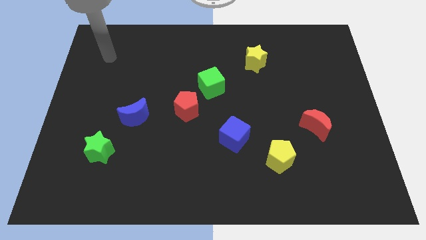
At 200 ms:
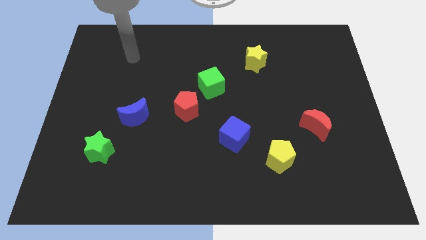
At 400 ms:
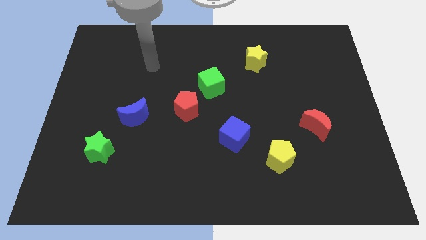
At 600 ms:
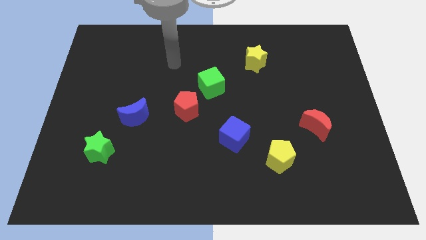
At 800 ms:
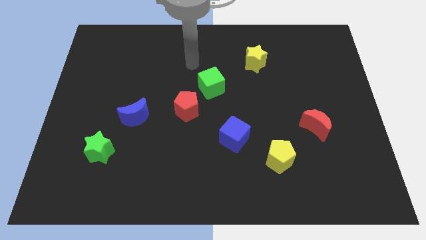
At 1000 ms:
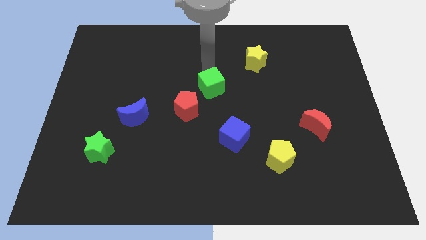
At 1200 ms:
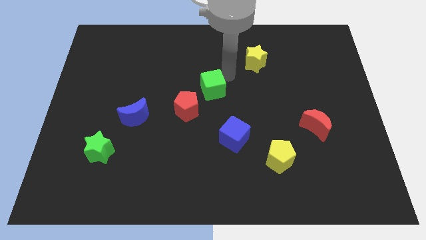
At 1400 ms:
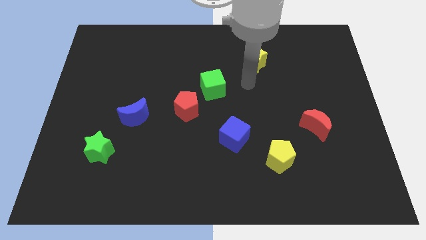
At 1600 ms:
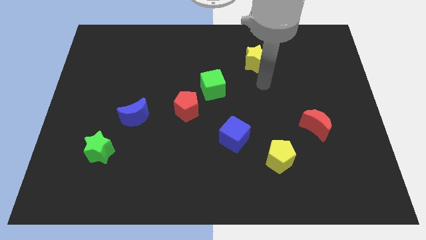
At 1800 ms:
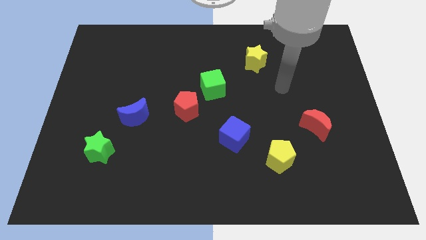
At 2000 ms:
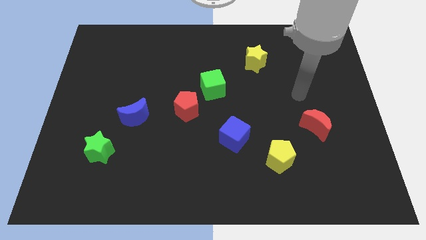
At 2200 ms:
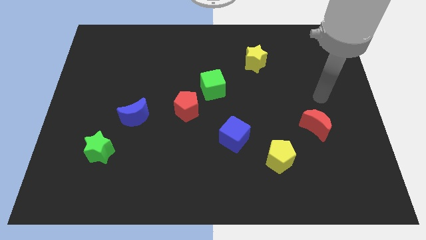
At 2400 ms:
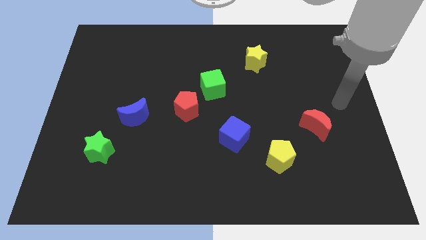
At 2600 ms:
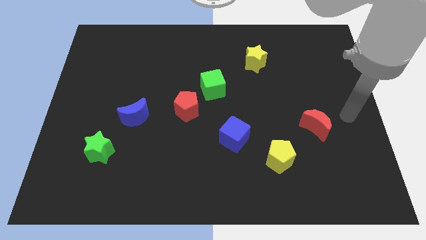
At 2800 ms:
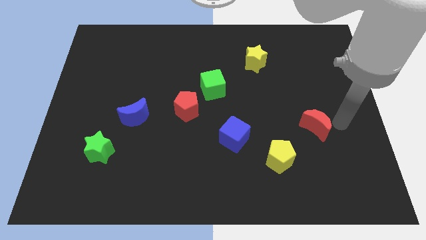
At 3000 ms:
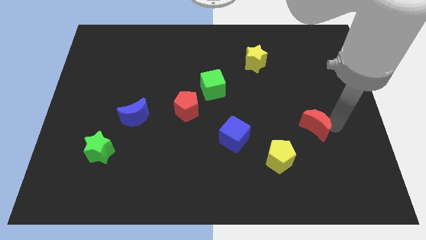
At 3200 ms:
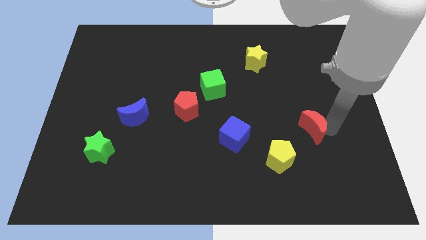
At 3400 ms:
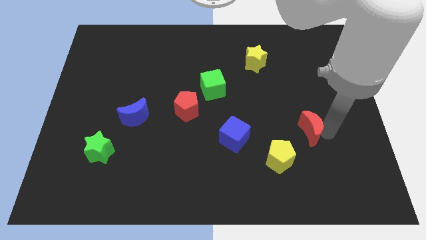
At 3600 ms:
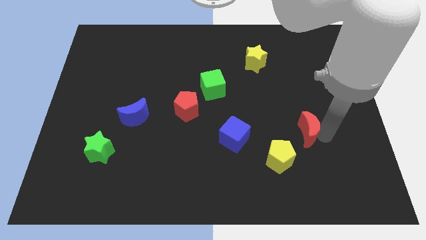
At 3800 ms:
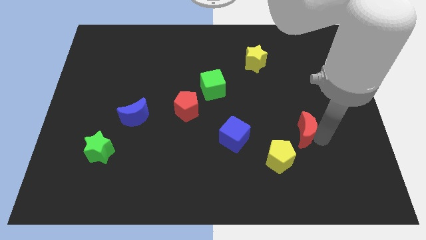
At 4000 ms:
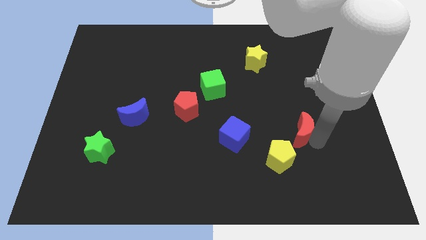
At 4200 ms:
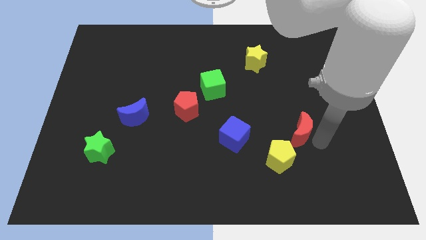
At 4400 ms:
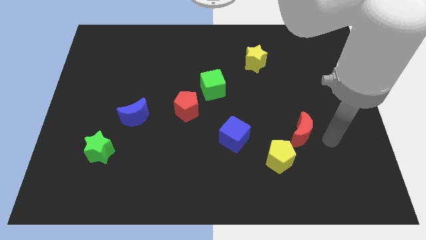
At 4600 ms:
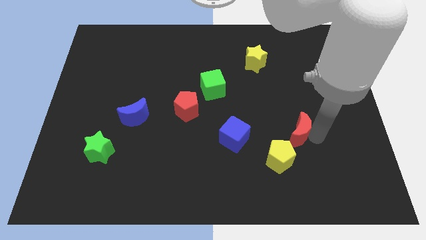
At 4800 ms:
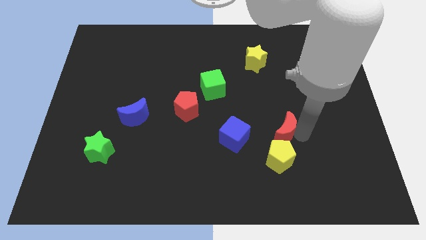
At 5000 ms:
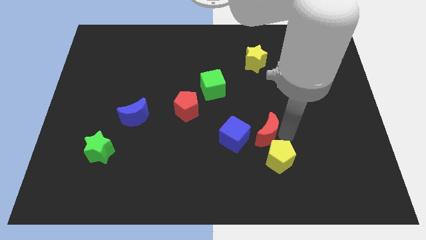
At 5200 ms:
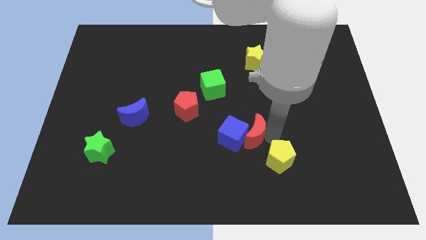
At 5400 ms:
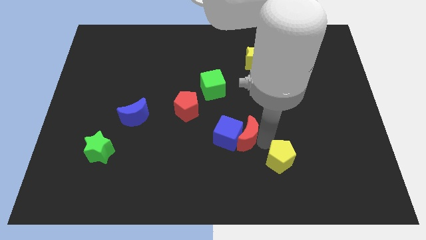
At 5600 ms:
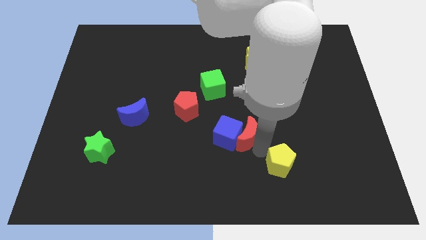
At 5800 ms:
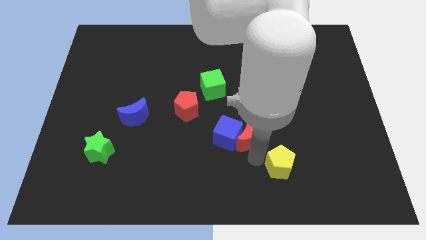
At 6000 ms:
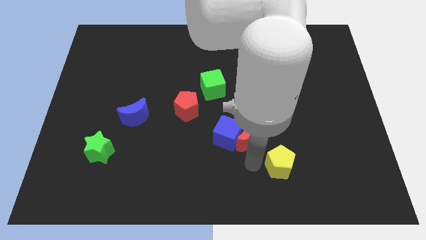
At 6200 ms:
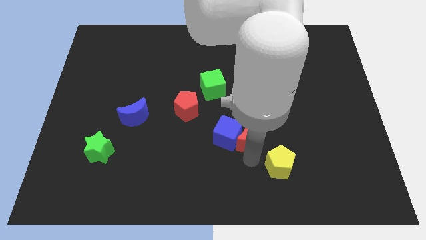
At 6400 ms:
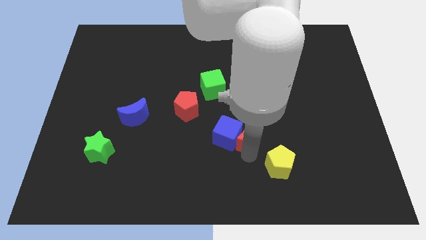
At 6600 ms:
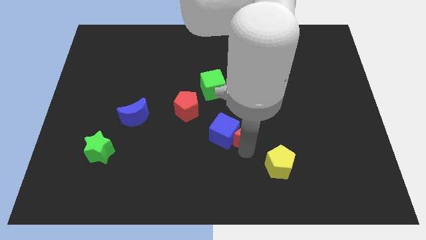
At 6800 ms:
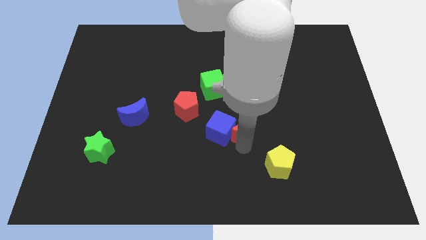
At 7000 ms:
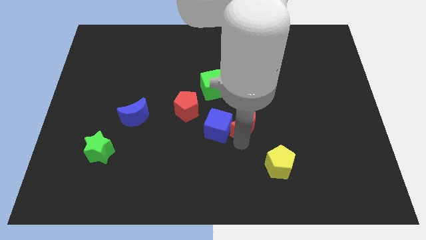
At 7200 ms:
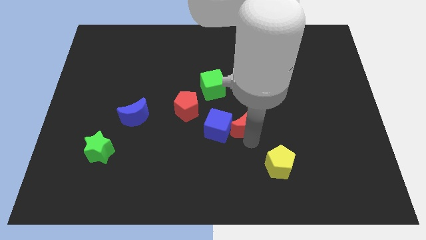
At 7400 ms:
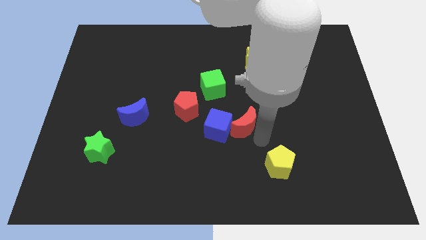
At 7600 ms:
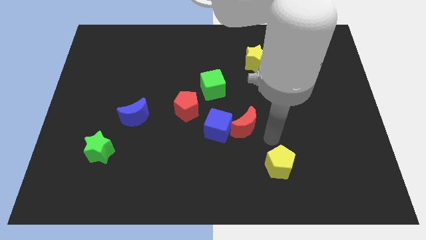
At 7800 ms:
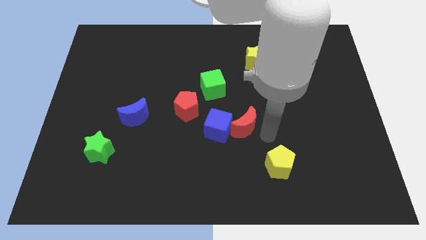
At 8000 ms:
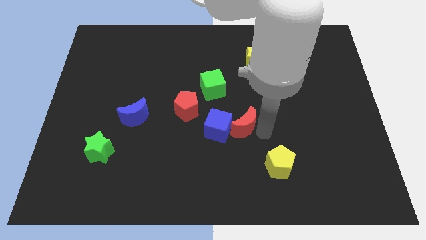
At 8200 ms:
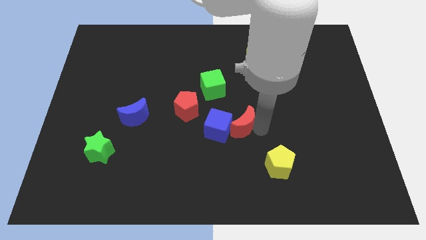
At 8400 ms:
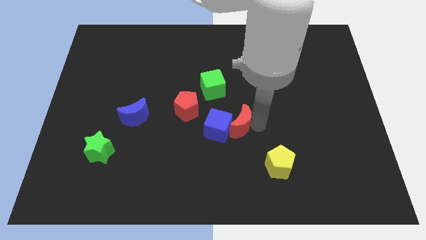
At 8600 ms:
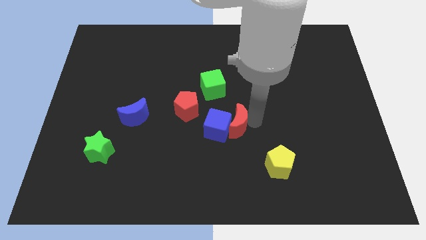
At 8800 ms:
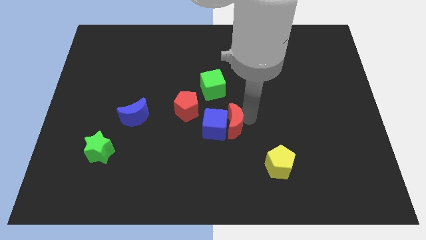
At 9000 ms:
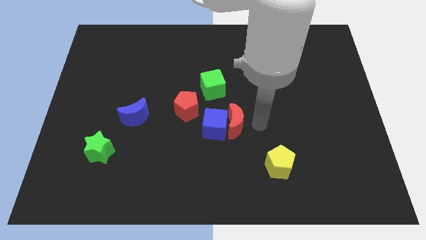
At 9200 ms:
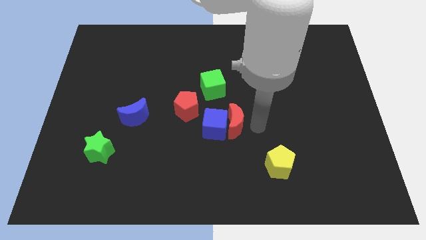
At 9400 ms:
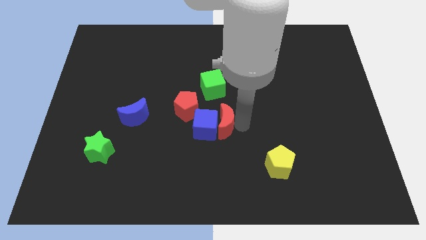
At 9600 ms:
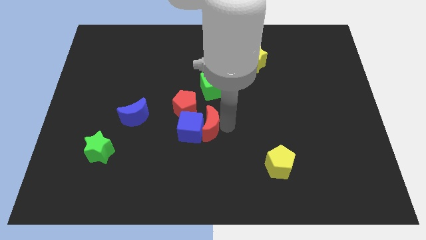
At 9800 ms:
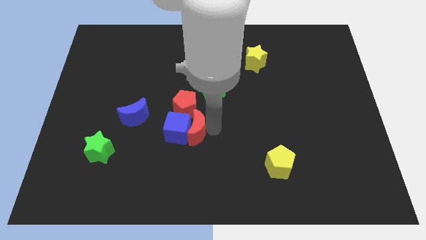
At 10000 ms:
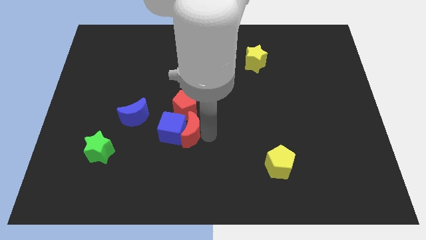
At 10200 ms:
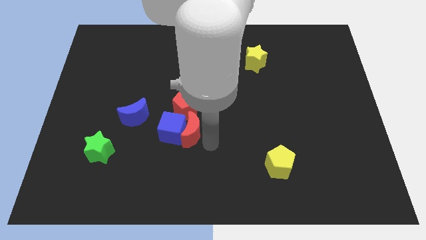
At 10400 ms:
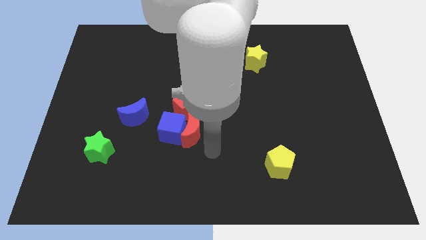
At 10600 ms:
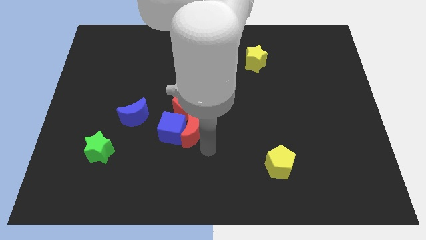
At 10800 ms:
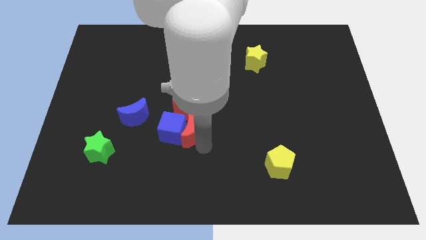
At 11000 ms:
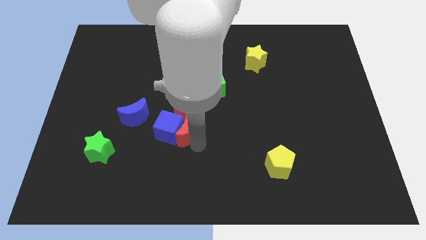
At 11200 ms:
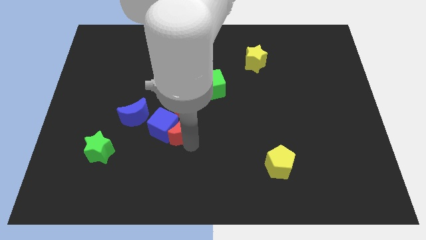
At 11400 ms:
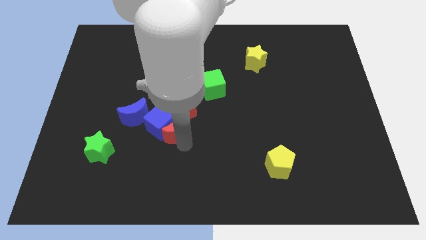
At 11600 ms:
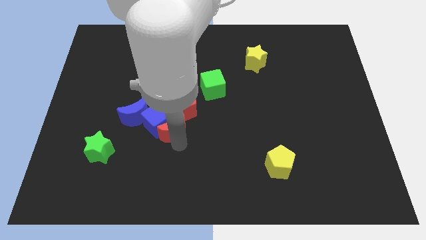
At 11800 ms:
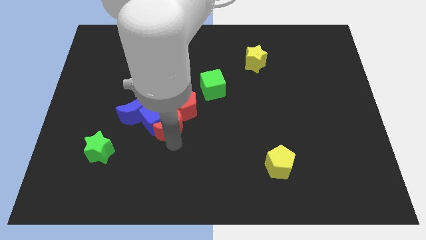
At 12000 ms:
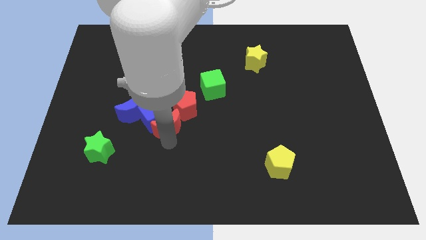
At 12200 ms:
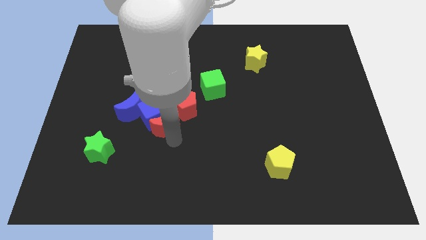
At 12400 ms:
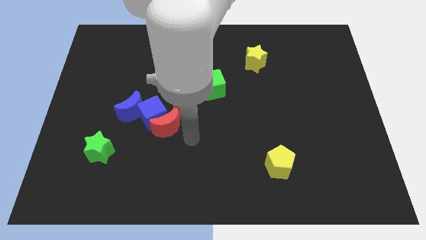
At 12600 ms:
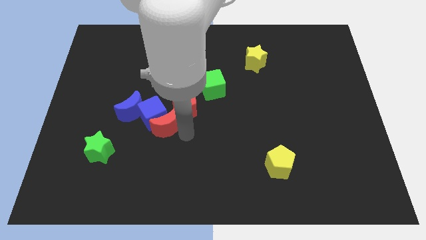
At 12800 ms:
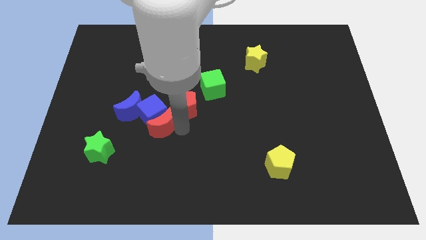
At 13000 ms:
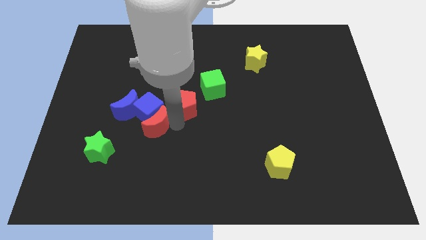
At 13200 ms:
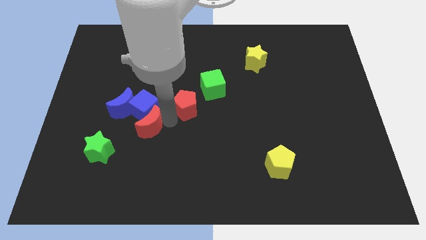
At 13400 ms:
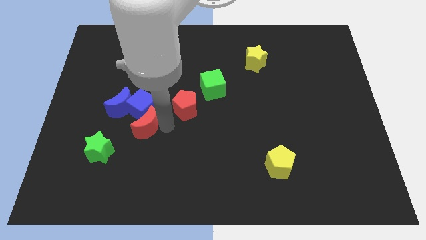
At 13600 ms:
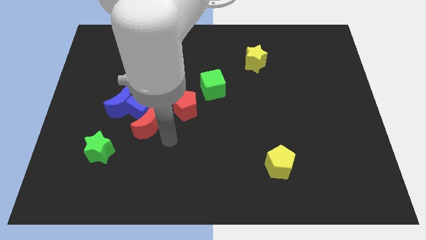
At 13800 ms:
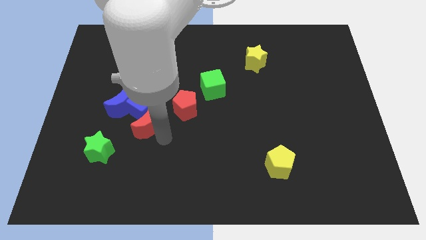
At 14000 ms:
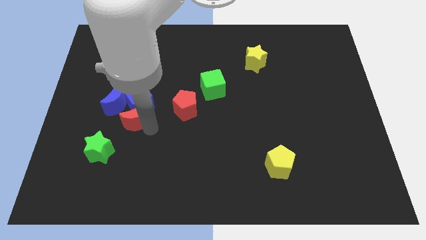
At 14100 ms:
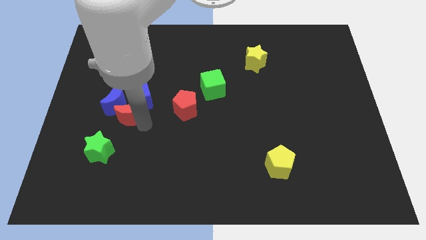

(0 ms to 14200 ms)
push the red moon close to the blue moon

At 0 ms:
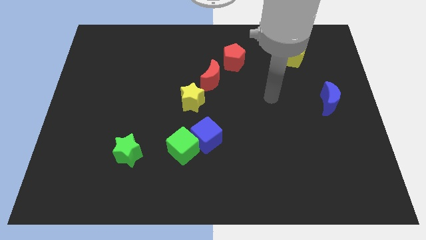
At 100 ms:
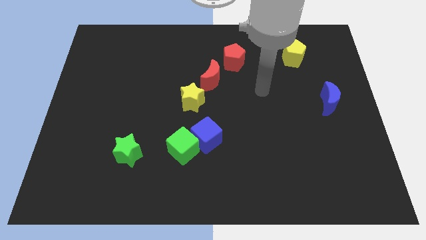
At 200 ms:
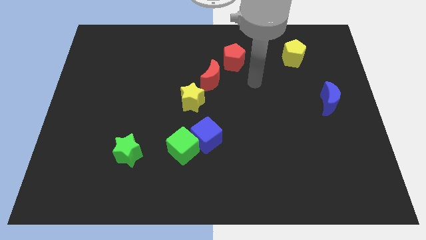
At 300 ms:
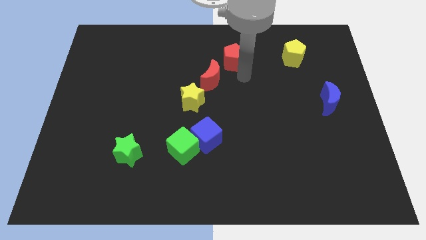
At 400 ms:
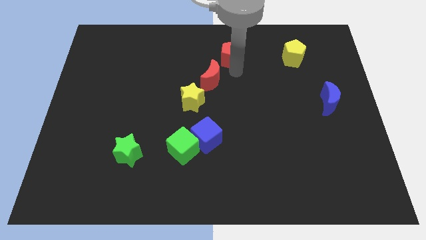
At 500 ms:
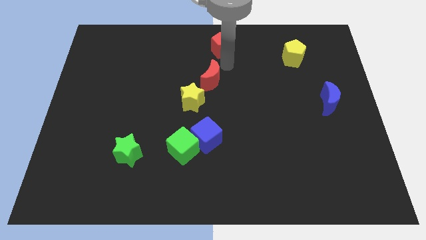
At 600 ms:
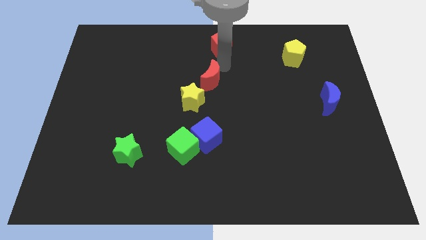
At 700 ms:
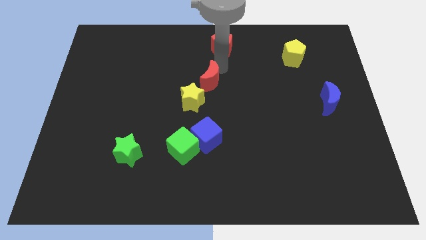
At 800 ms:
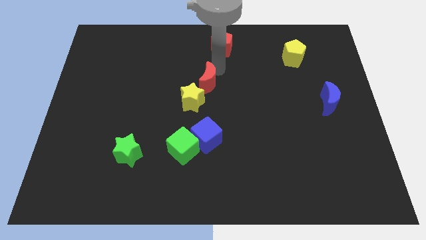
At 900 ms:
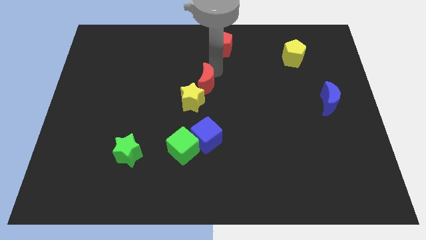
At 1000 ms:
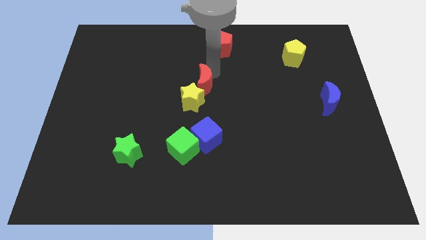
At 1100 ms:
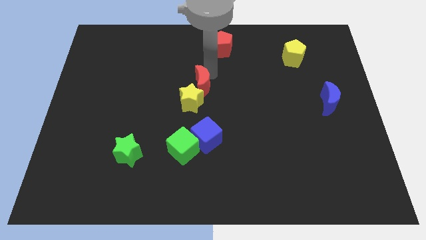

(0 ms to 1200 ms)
slide the red moon towards the yellow star
